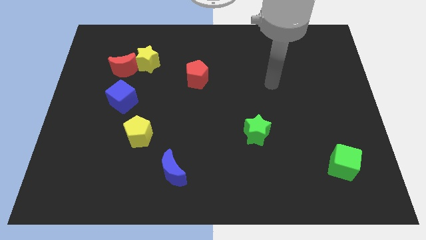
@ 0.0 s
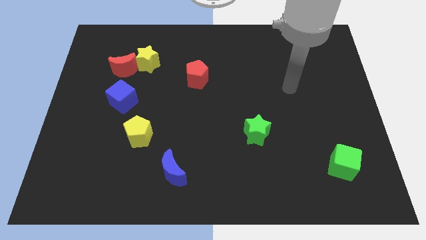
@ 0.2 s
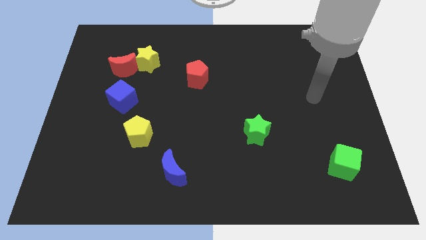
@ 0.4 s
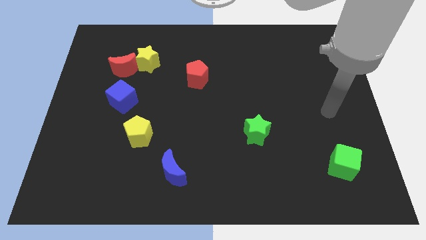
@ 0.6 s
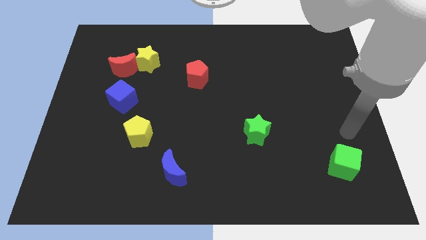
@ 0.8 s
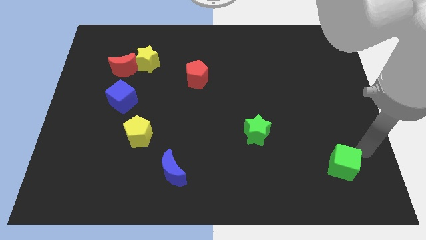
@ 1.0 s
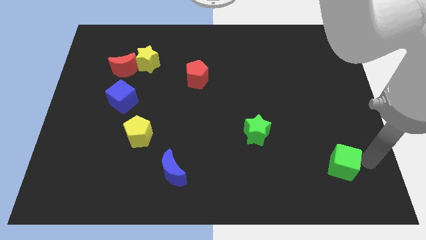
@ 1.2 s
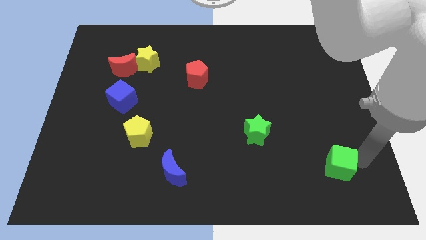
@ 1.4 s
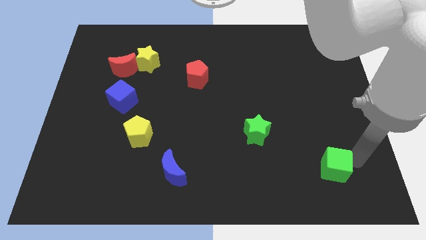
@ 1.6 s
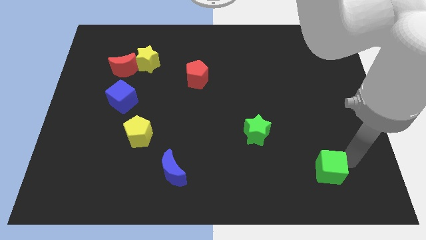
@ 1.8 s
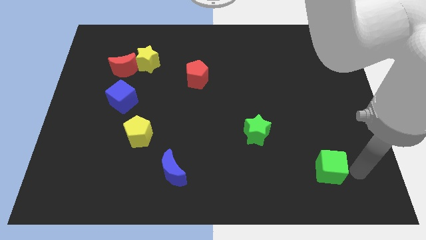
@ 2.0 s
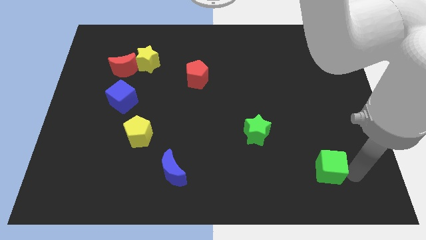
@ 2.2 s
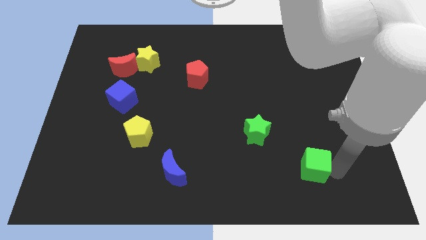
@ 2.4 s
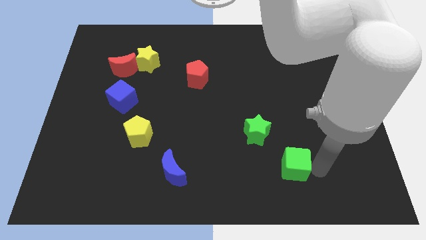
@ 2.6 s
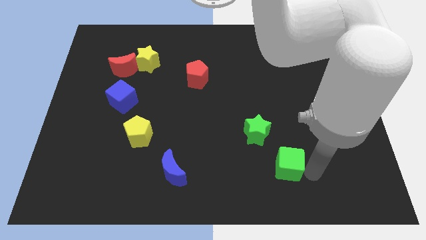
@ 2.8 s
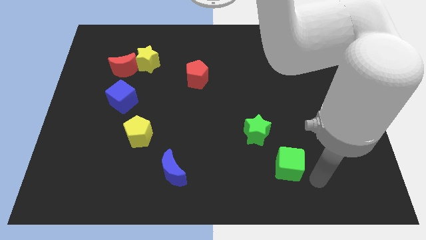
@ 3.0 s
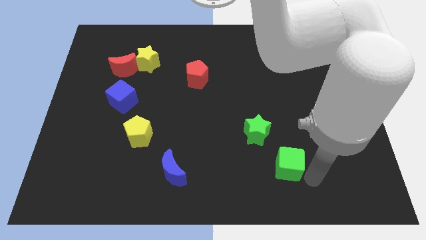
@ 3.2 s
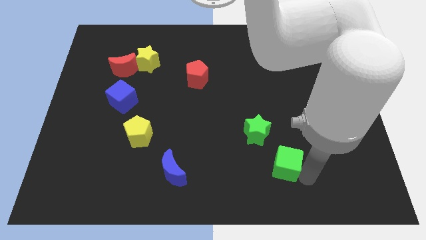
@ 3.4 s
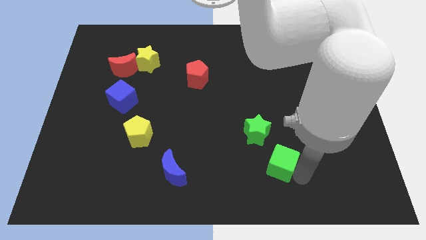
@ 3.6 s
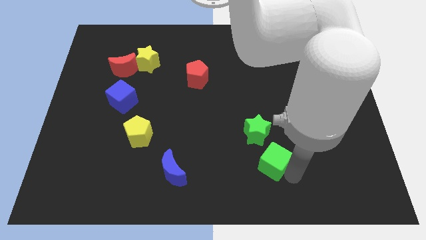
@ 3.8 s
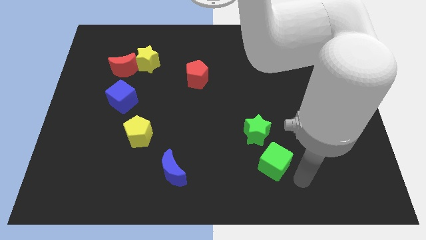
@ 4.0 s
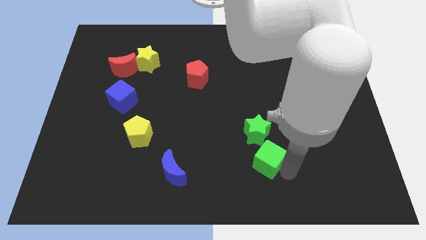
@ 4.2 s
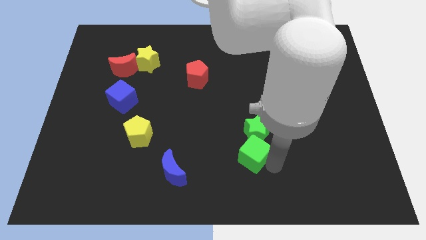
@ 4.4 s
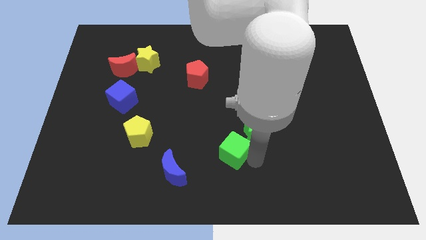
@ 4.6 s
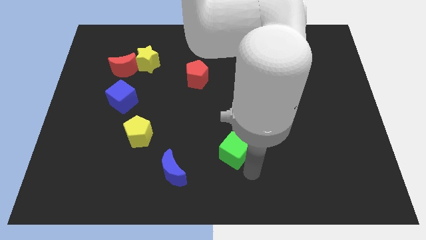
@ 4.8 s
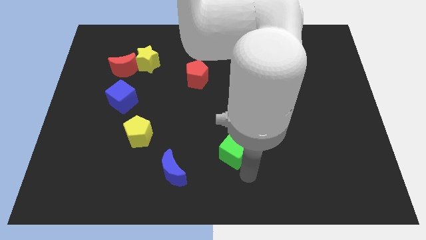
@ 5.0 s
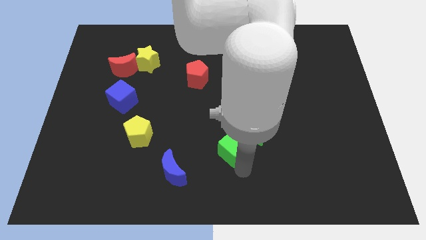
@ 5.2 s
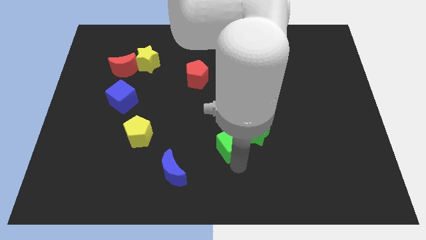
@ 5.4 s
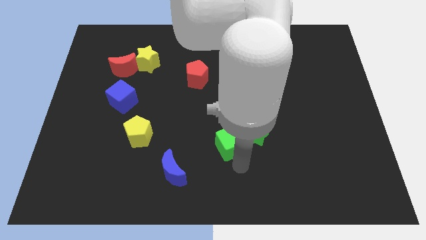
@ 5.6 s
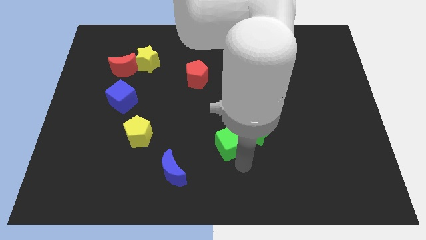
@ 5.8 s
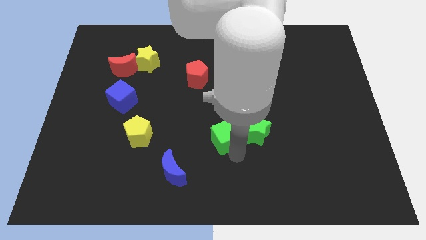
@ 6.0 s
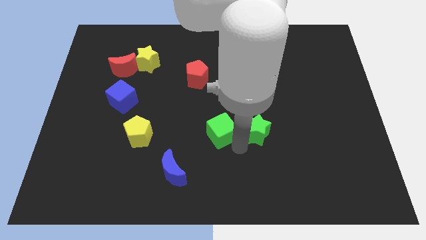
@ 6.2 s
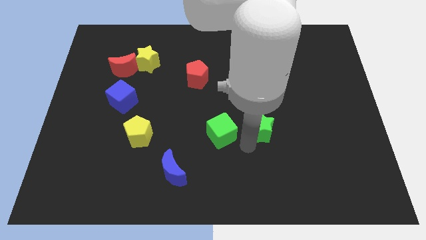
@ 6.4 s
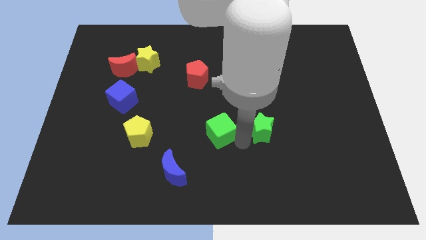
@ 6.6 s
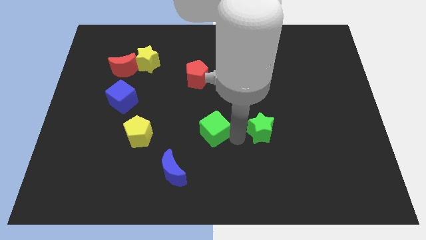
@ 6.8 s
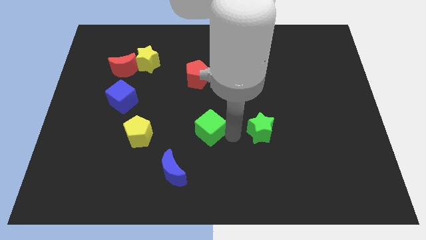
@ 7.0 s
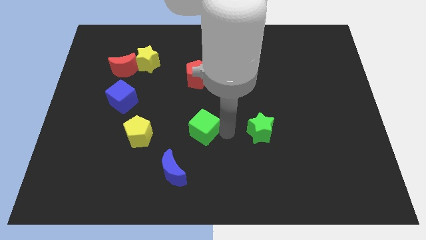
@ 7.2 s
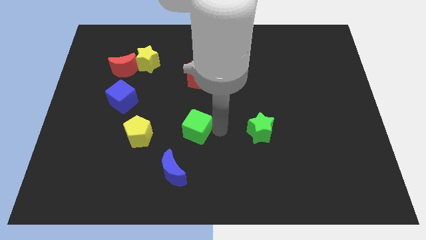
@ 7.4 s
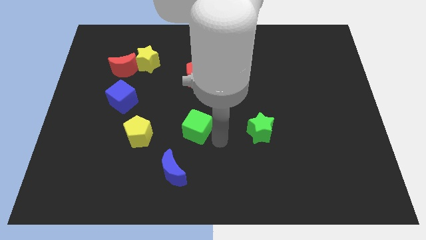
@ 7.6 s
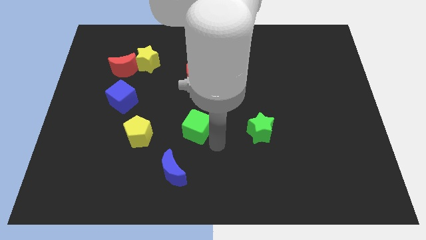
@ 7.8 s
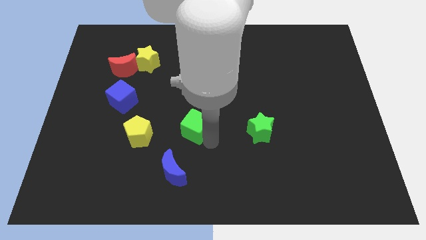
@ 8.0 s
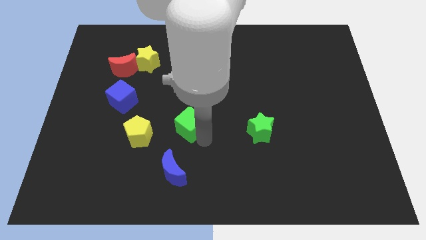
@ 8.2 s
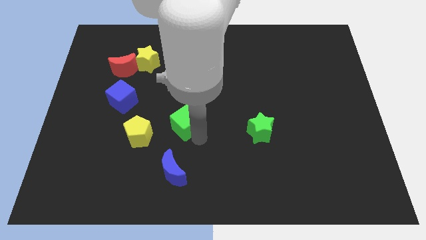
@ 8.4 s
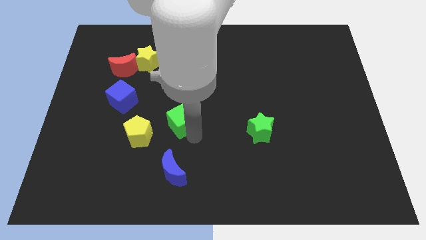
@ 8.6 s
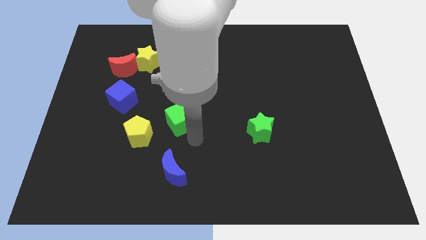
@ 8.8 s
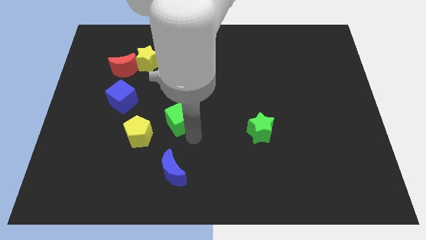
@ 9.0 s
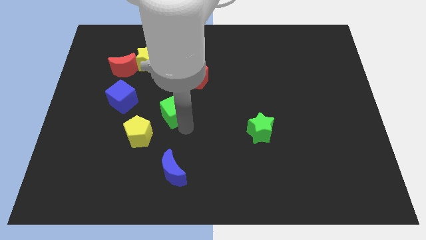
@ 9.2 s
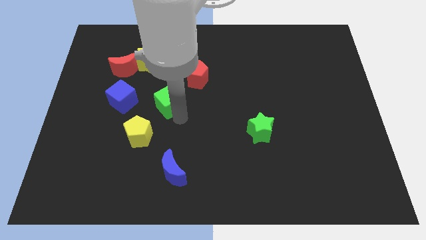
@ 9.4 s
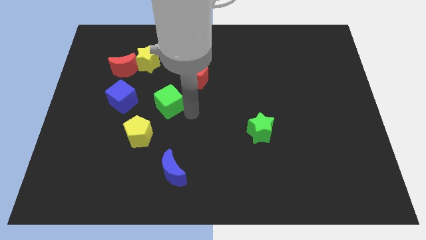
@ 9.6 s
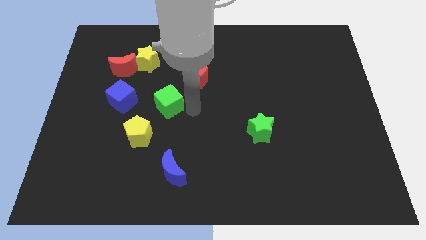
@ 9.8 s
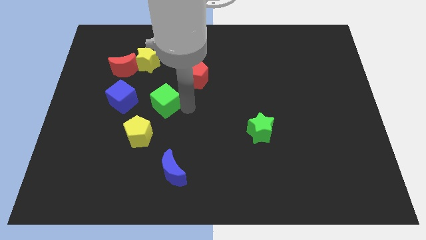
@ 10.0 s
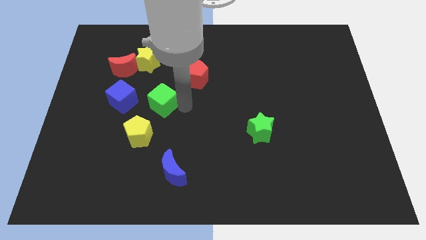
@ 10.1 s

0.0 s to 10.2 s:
slide the green cube to the top of the yellow pentagon

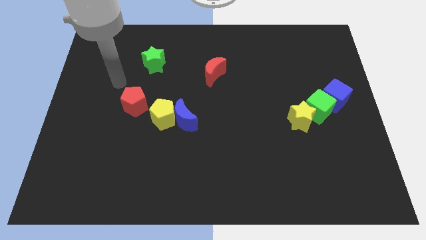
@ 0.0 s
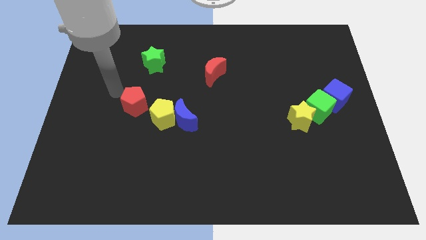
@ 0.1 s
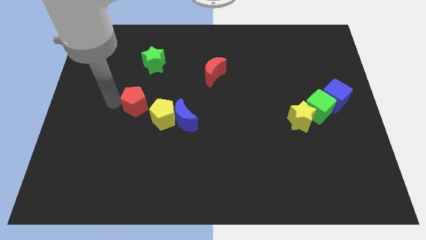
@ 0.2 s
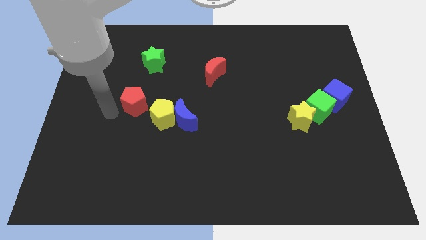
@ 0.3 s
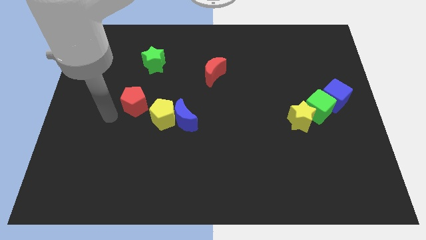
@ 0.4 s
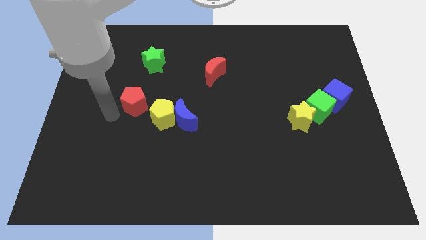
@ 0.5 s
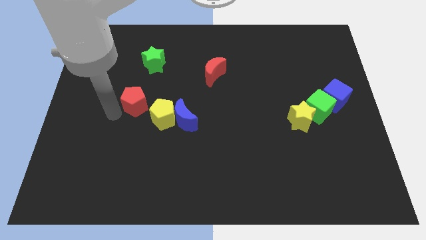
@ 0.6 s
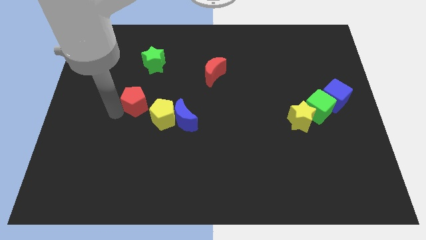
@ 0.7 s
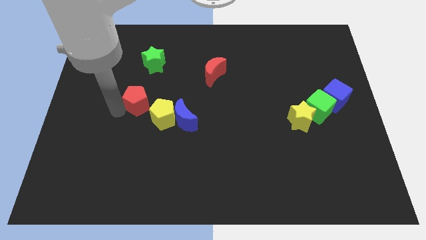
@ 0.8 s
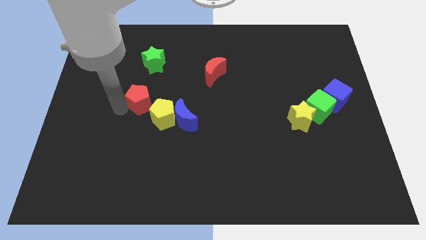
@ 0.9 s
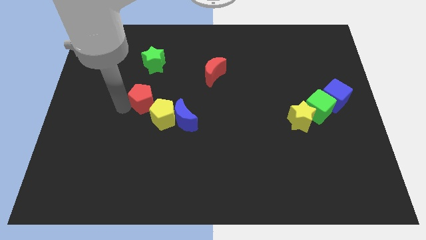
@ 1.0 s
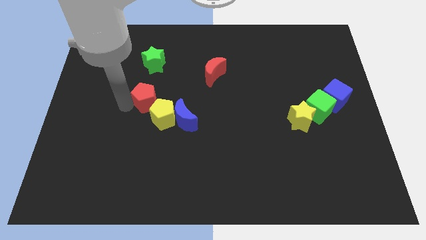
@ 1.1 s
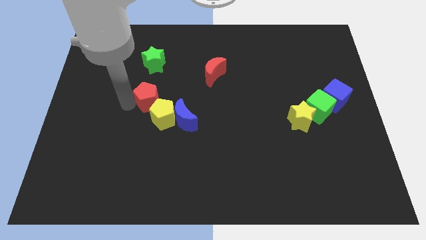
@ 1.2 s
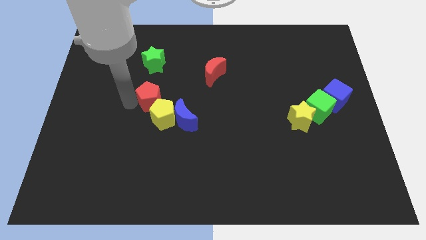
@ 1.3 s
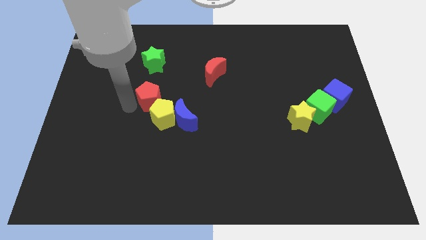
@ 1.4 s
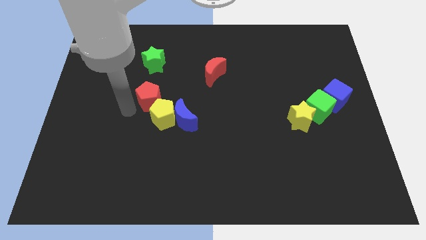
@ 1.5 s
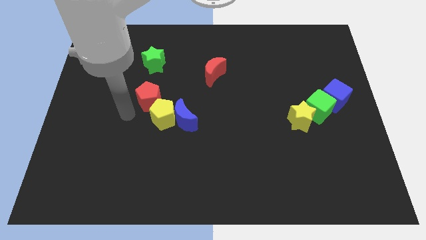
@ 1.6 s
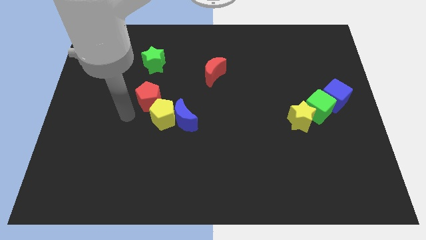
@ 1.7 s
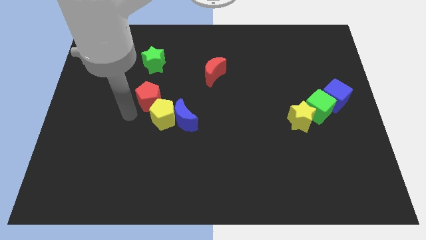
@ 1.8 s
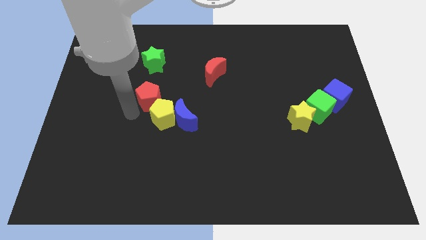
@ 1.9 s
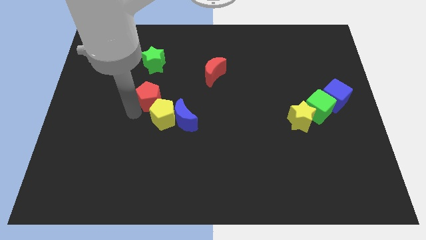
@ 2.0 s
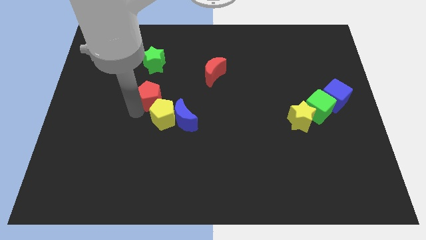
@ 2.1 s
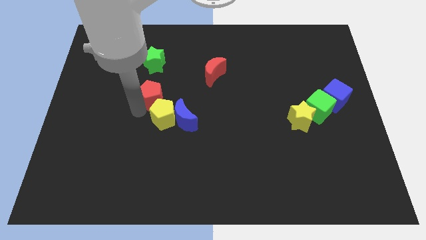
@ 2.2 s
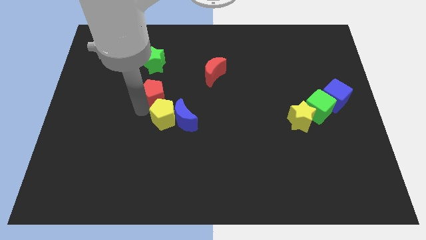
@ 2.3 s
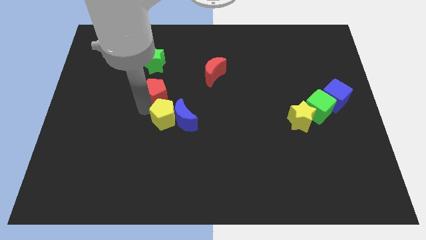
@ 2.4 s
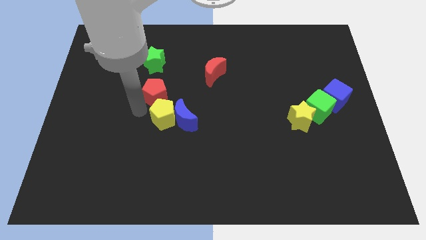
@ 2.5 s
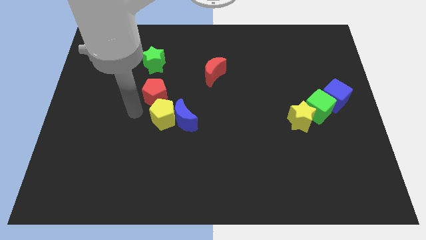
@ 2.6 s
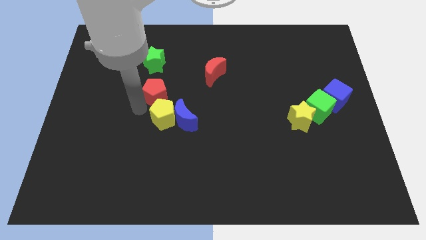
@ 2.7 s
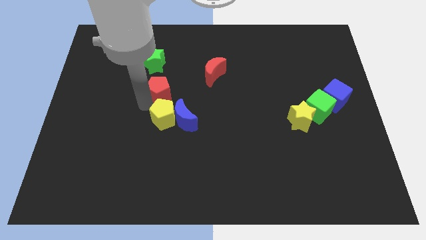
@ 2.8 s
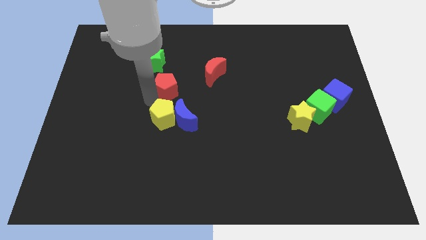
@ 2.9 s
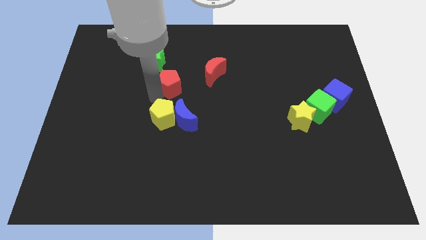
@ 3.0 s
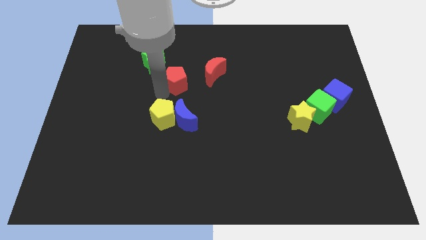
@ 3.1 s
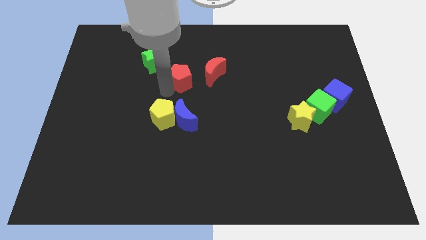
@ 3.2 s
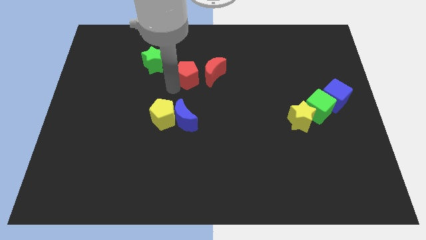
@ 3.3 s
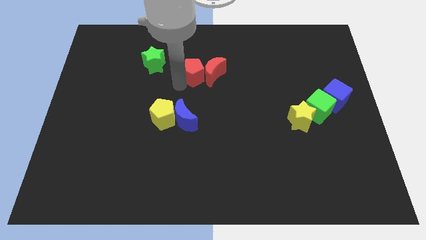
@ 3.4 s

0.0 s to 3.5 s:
put the red pentagon just right of the green star
